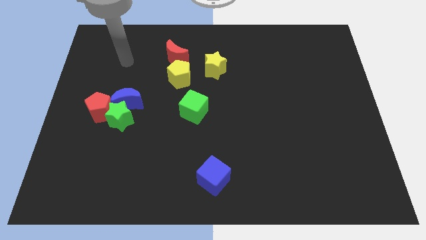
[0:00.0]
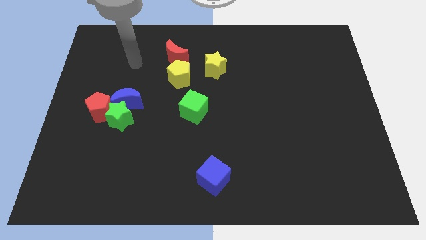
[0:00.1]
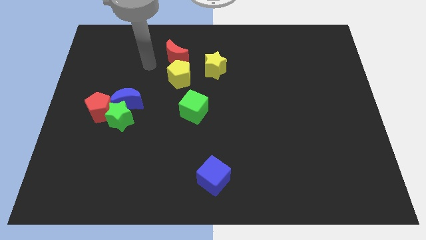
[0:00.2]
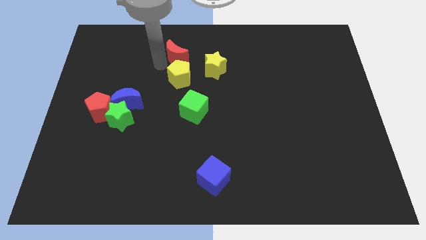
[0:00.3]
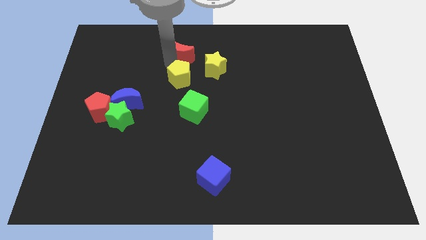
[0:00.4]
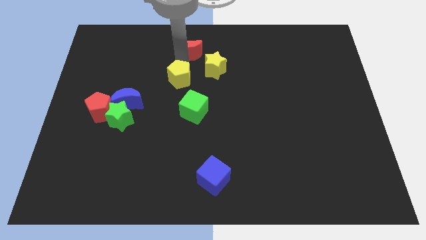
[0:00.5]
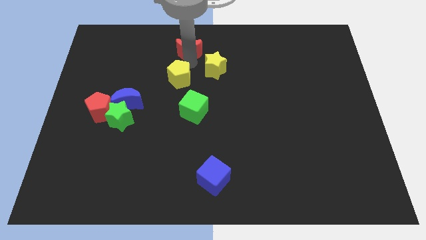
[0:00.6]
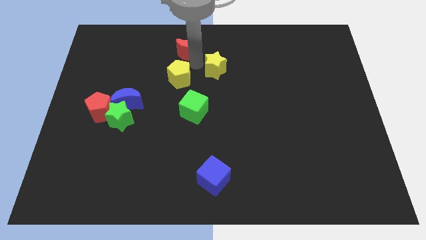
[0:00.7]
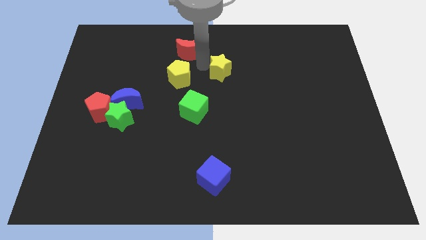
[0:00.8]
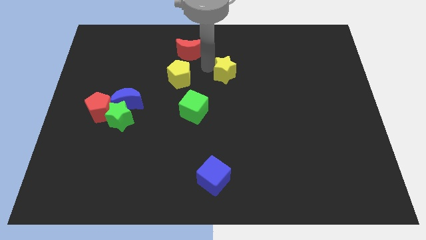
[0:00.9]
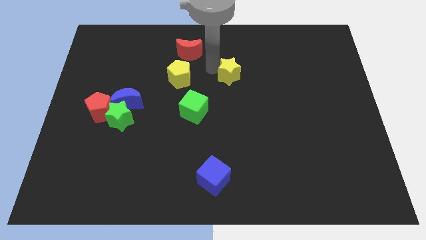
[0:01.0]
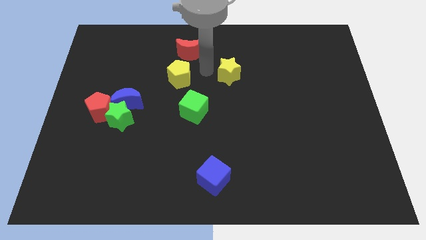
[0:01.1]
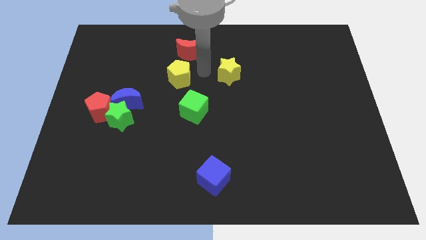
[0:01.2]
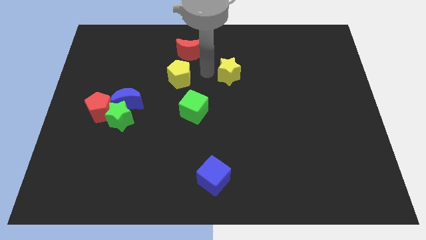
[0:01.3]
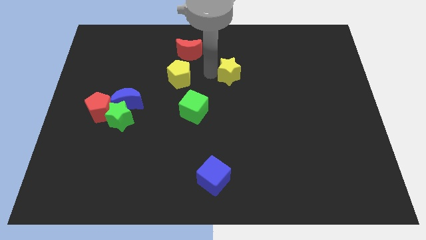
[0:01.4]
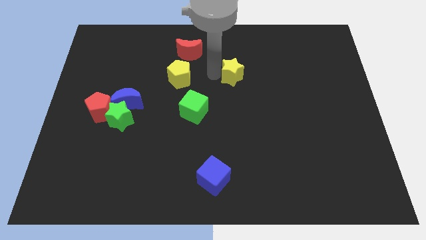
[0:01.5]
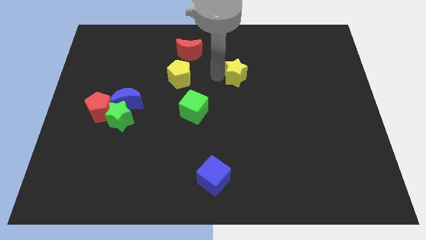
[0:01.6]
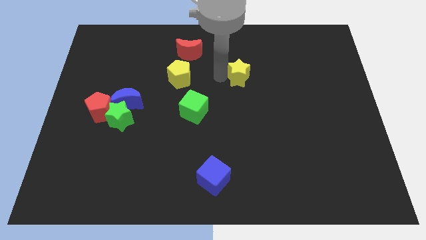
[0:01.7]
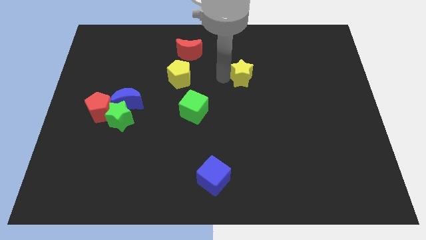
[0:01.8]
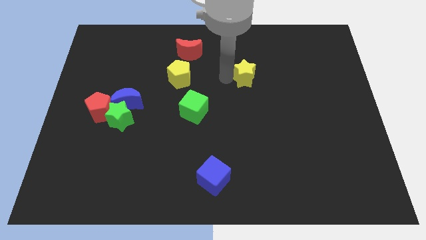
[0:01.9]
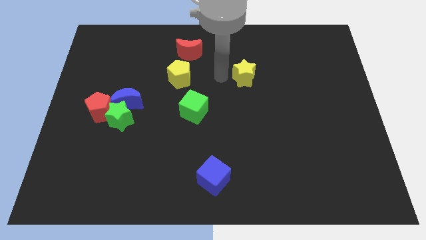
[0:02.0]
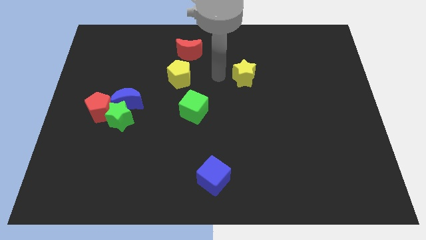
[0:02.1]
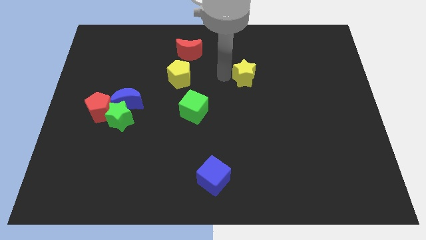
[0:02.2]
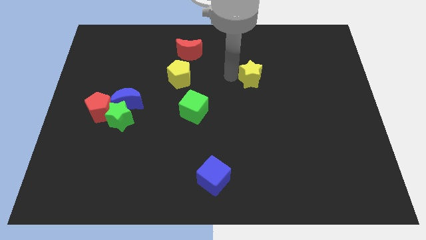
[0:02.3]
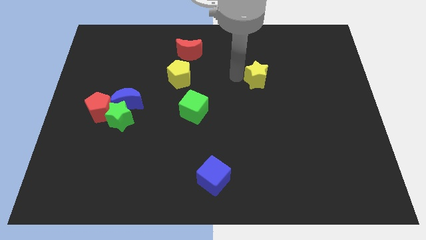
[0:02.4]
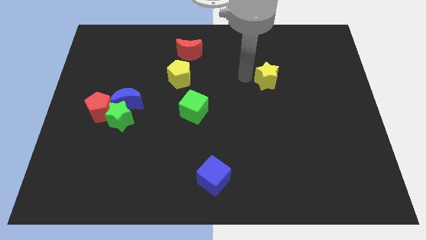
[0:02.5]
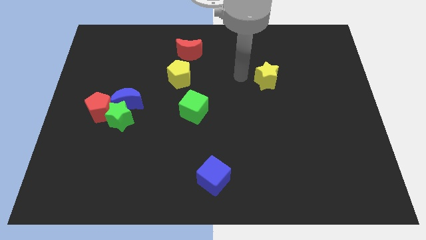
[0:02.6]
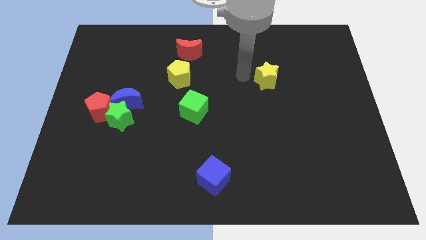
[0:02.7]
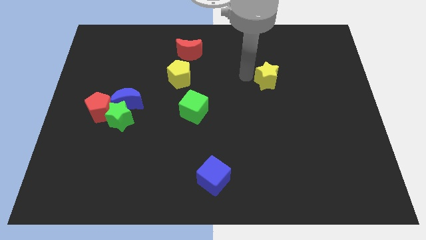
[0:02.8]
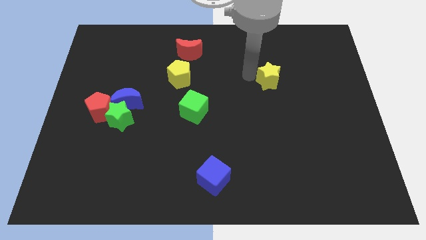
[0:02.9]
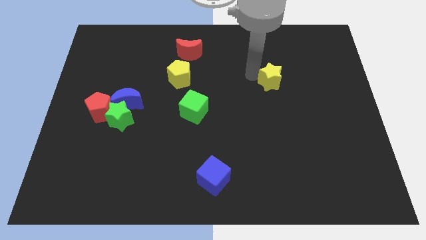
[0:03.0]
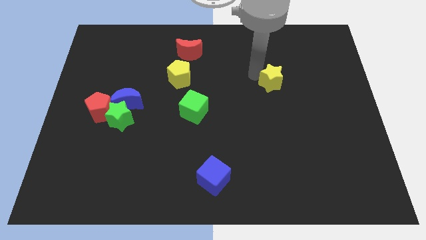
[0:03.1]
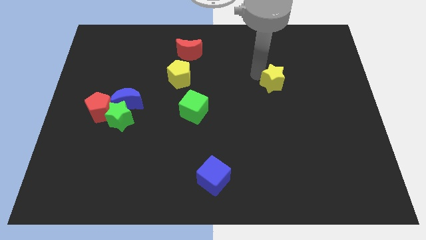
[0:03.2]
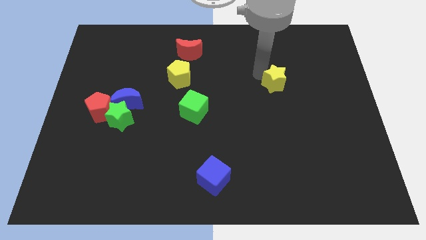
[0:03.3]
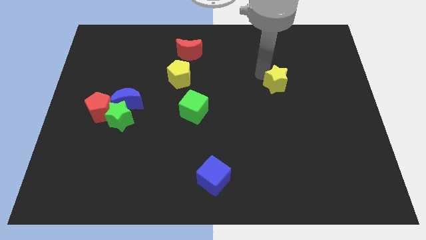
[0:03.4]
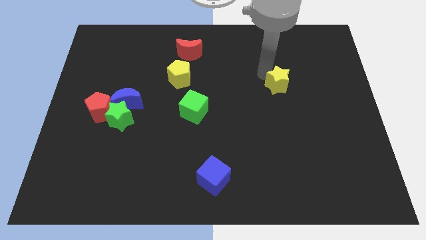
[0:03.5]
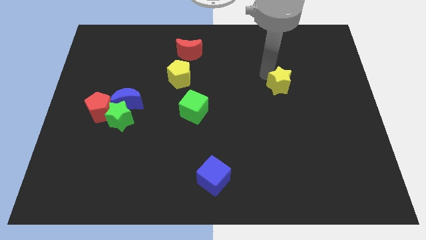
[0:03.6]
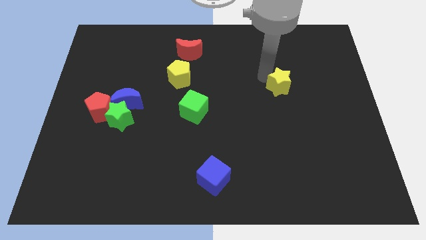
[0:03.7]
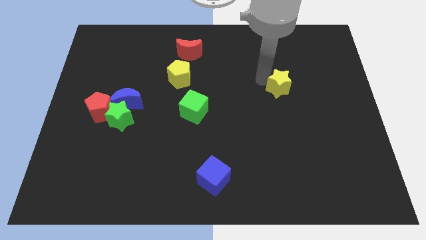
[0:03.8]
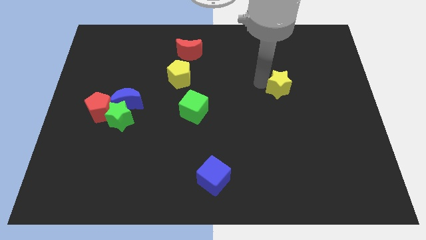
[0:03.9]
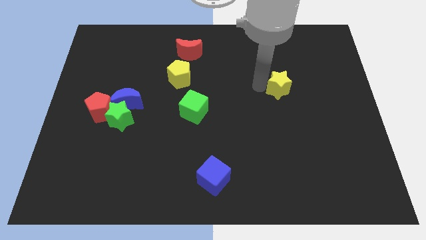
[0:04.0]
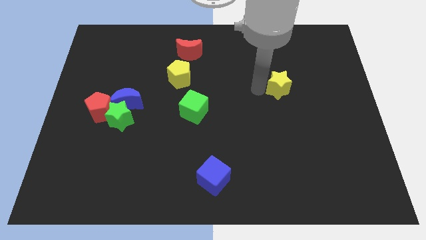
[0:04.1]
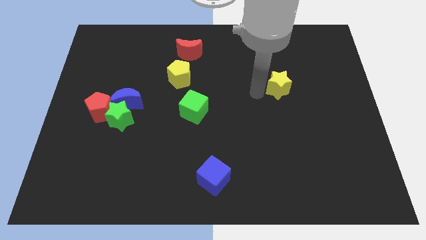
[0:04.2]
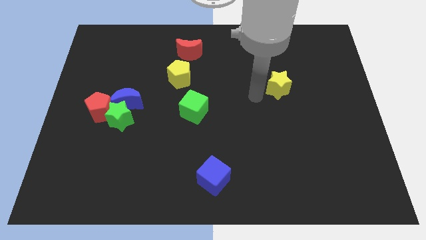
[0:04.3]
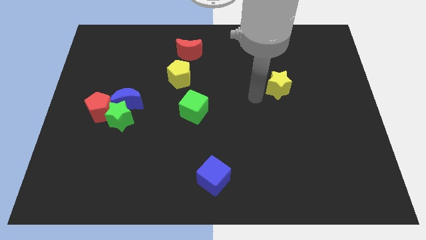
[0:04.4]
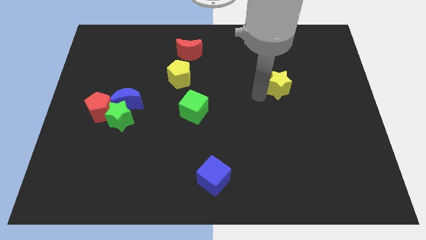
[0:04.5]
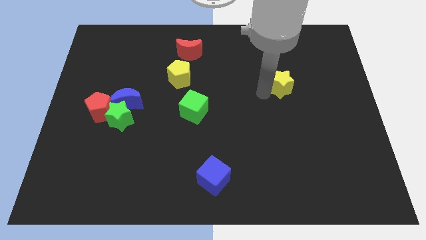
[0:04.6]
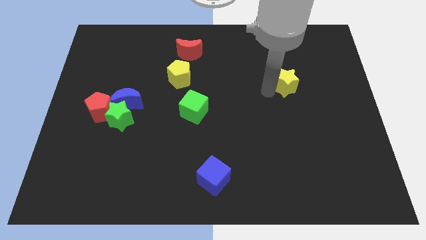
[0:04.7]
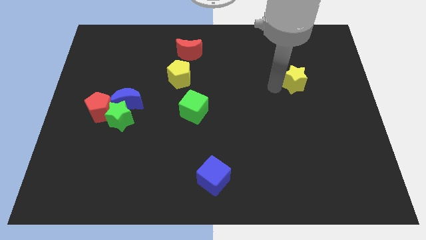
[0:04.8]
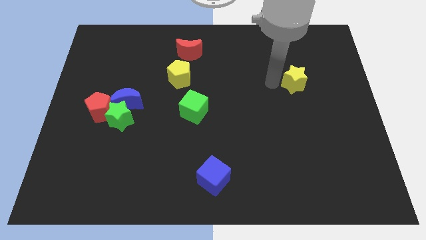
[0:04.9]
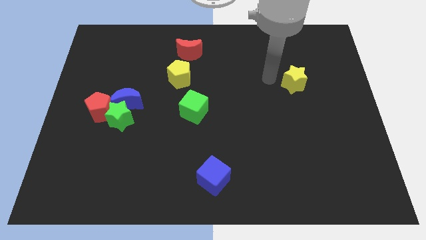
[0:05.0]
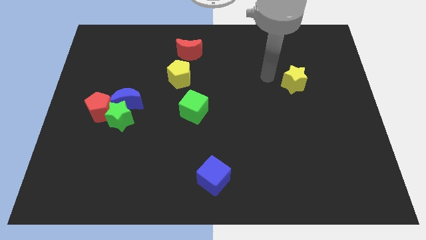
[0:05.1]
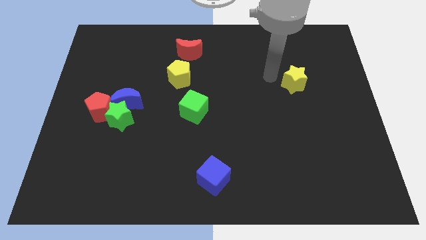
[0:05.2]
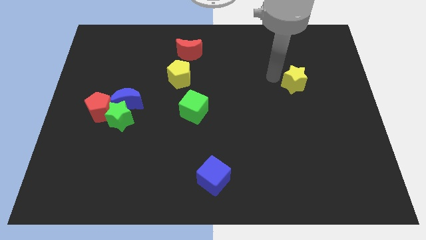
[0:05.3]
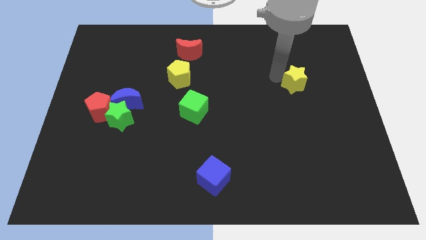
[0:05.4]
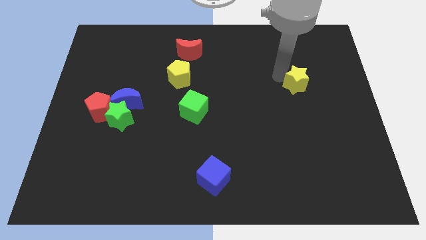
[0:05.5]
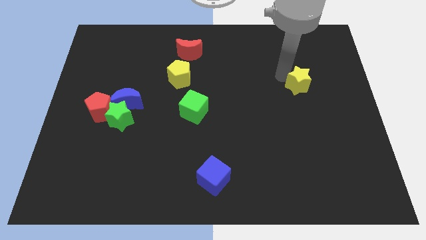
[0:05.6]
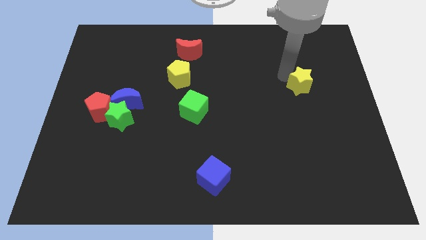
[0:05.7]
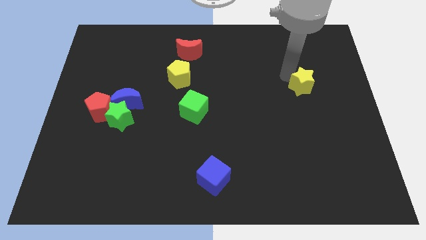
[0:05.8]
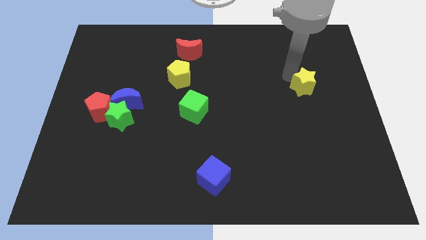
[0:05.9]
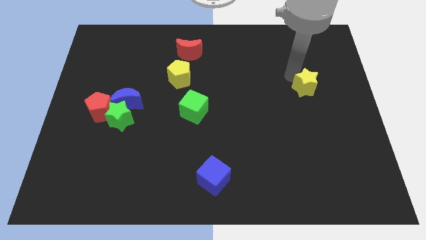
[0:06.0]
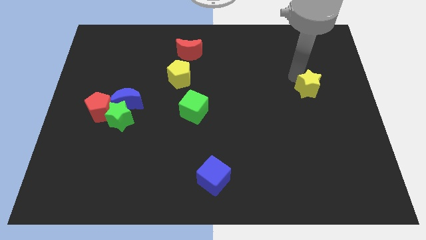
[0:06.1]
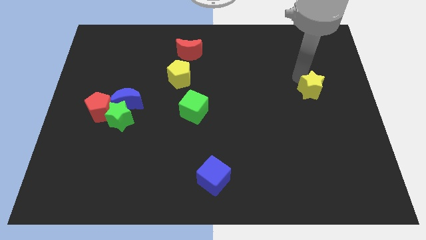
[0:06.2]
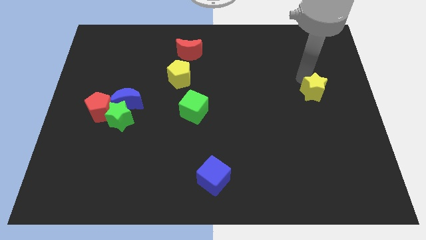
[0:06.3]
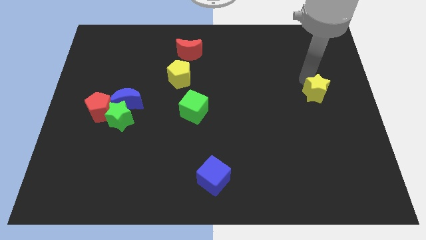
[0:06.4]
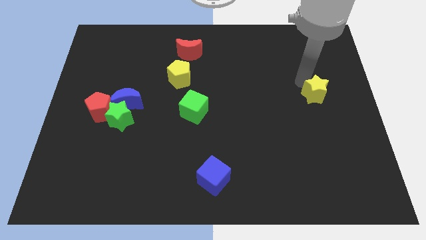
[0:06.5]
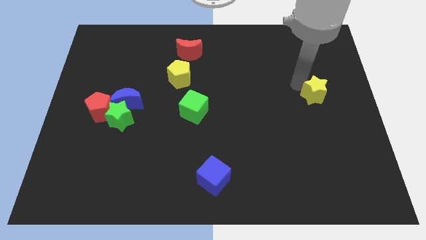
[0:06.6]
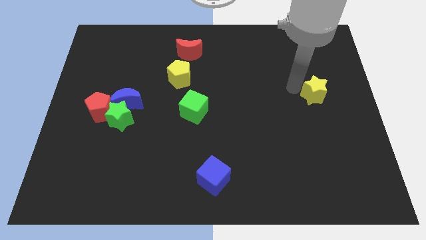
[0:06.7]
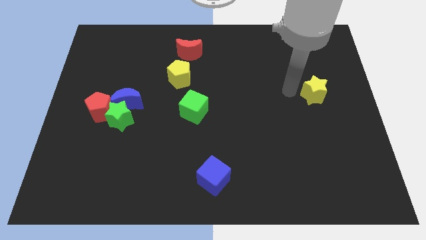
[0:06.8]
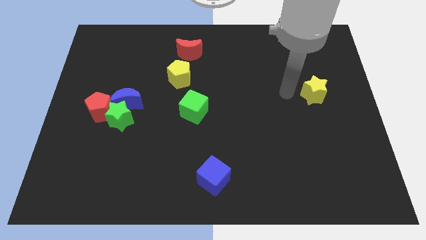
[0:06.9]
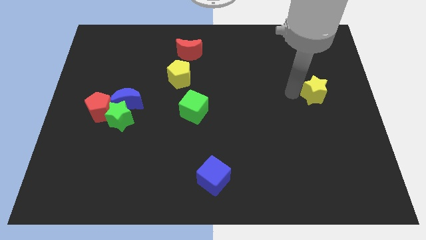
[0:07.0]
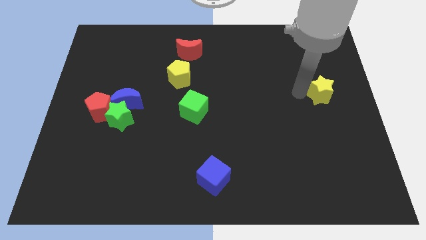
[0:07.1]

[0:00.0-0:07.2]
move the yellow star to the right side
